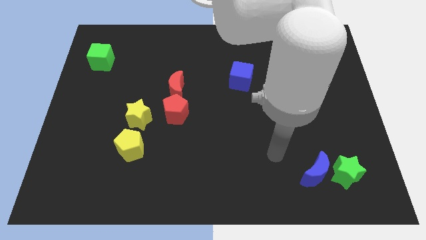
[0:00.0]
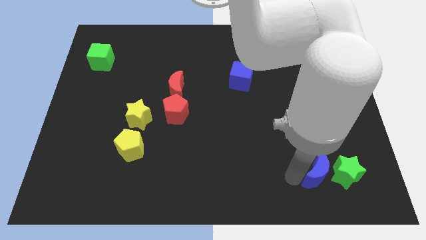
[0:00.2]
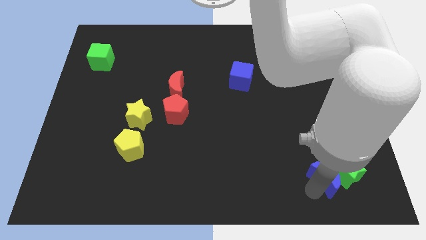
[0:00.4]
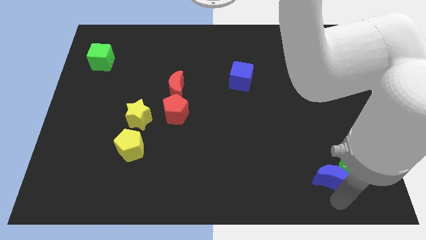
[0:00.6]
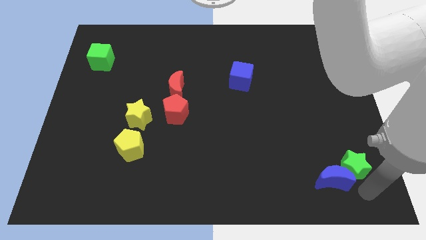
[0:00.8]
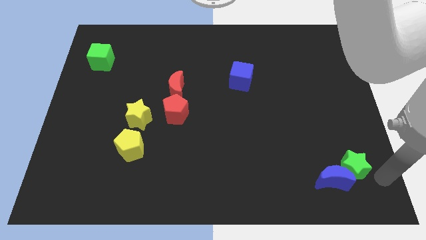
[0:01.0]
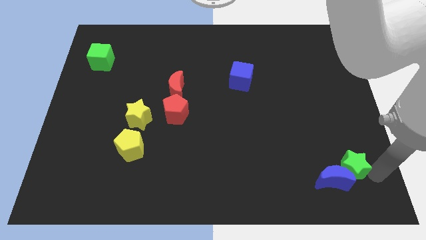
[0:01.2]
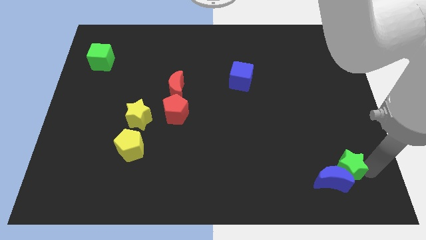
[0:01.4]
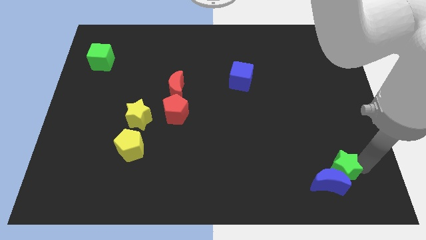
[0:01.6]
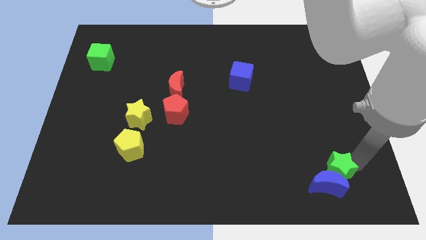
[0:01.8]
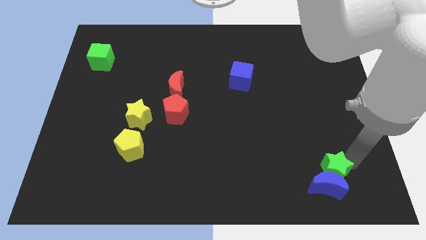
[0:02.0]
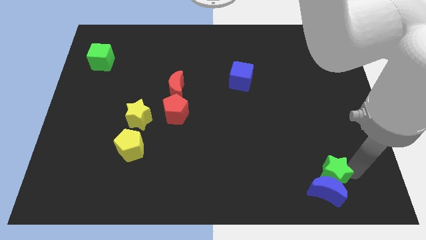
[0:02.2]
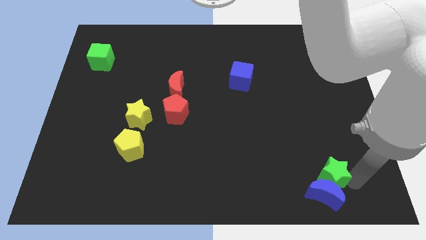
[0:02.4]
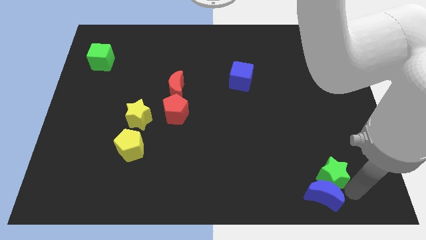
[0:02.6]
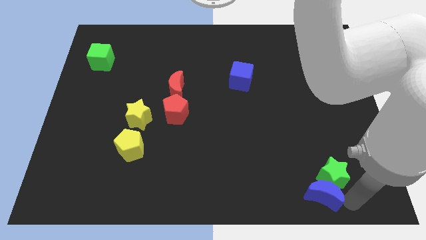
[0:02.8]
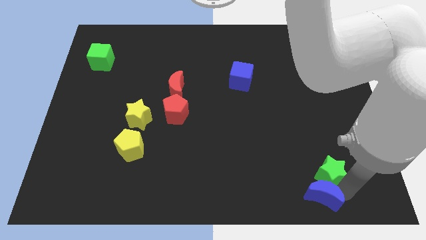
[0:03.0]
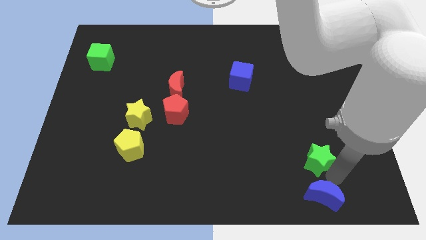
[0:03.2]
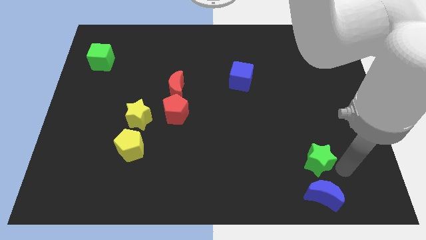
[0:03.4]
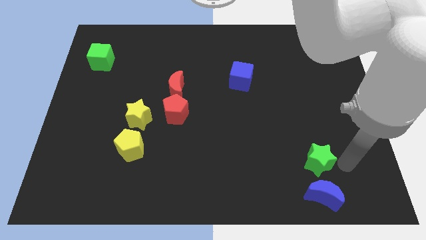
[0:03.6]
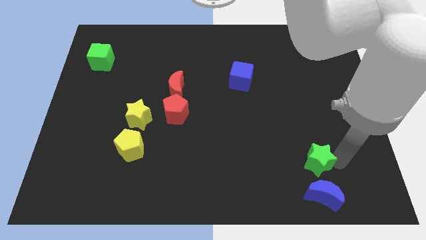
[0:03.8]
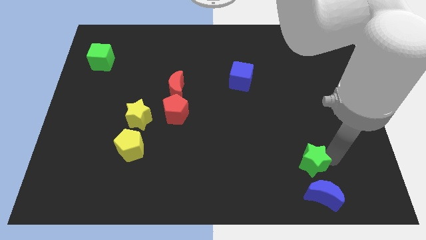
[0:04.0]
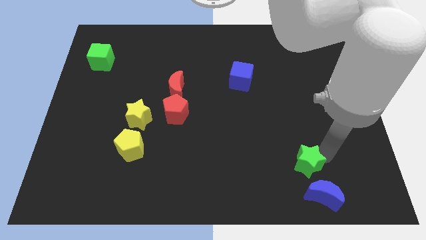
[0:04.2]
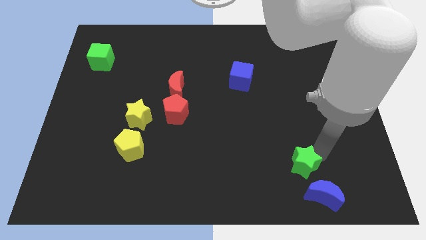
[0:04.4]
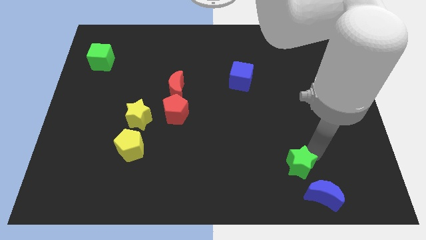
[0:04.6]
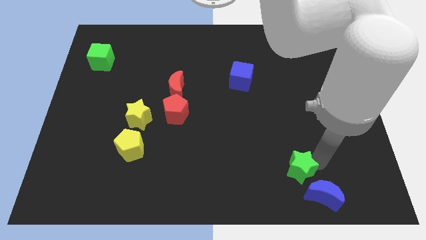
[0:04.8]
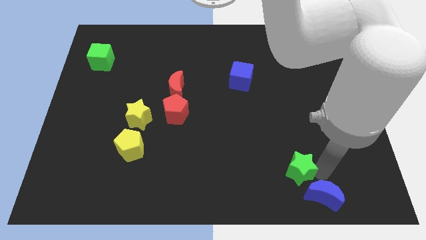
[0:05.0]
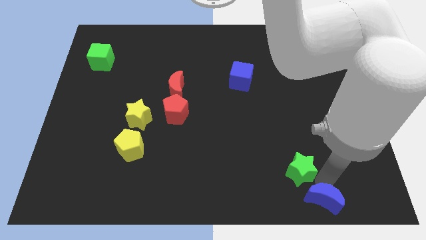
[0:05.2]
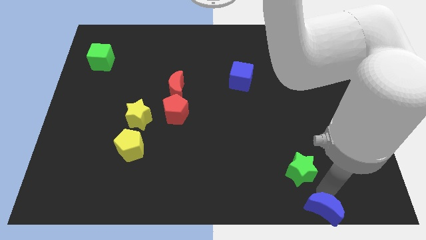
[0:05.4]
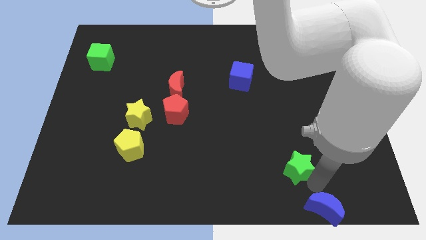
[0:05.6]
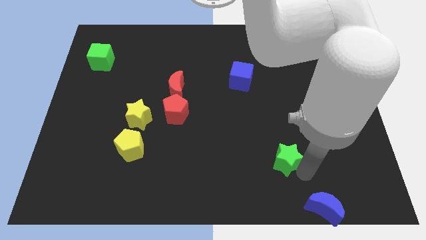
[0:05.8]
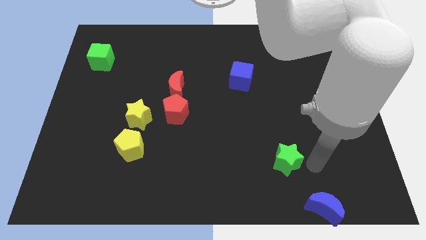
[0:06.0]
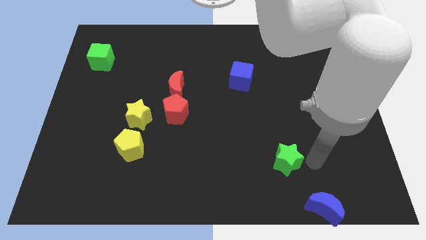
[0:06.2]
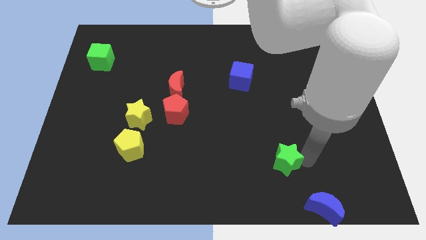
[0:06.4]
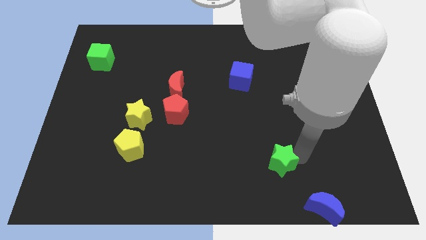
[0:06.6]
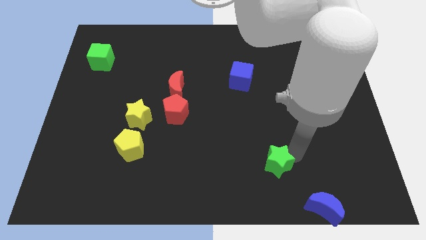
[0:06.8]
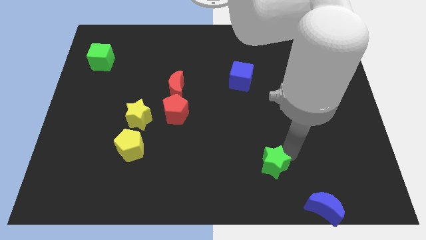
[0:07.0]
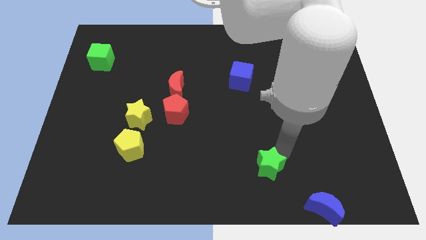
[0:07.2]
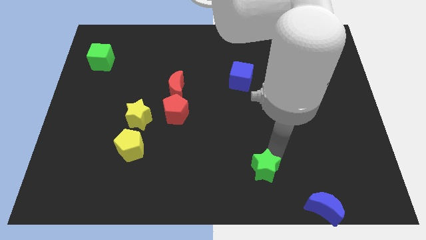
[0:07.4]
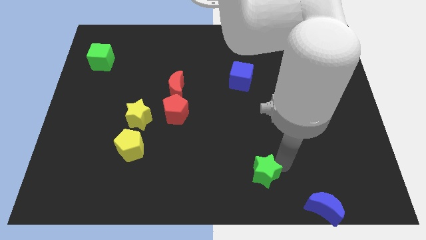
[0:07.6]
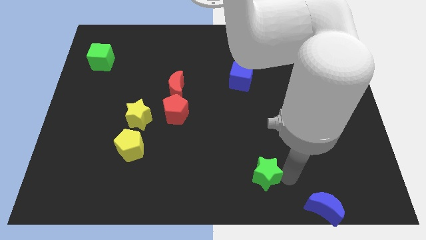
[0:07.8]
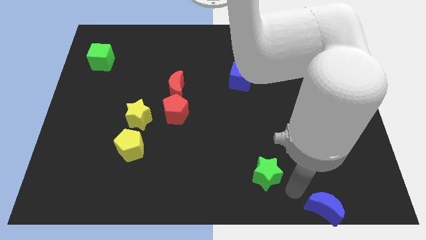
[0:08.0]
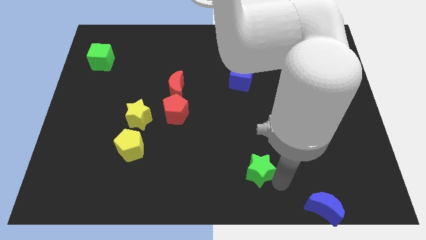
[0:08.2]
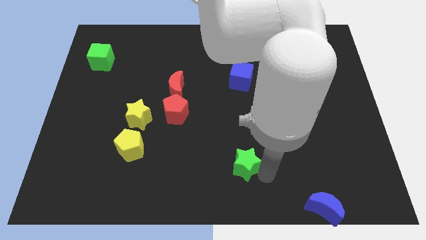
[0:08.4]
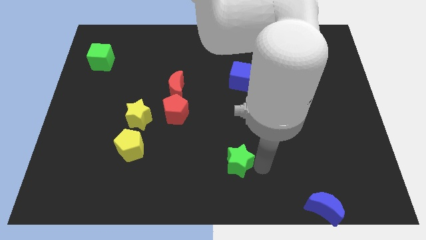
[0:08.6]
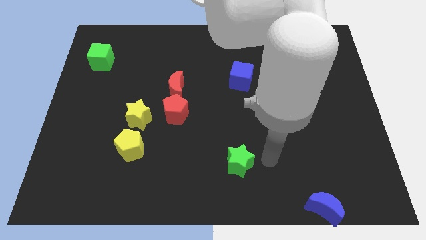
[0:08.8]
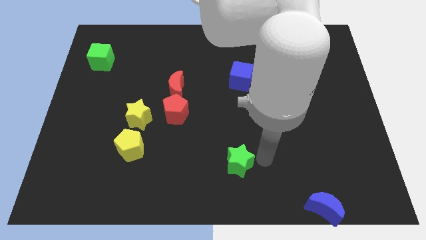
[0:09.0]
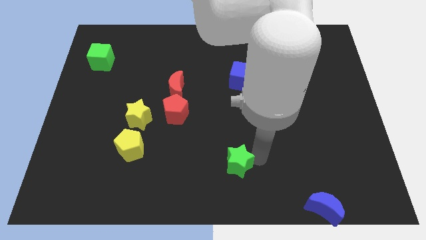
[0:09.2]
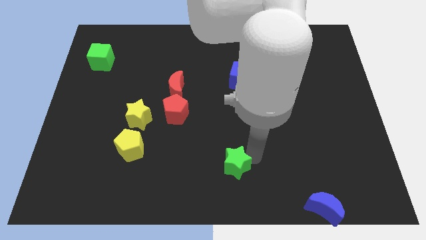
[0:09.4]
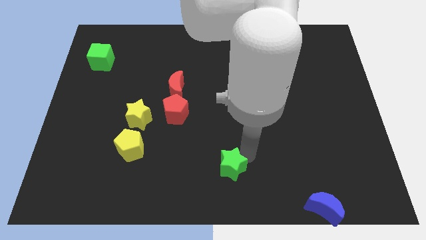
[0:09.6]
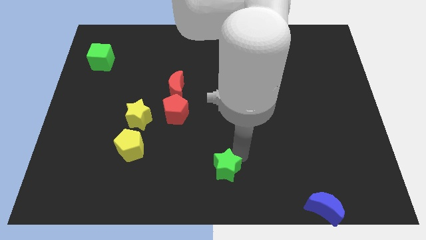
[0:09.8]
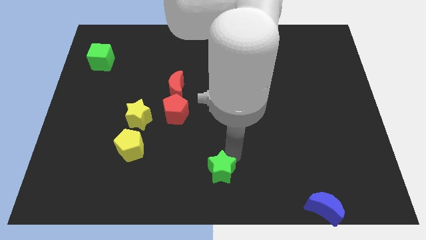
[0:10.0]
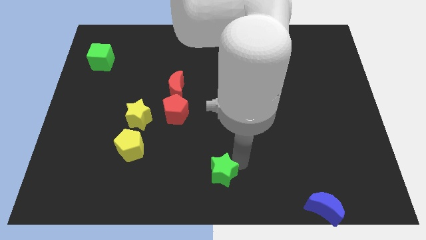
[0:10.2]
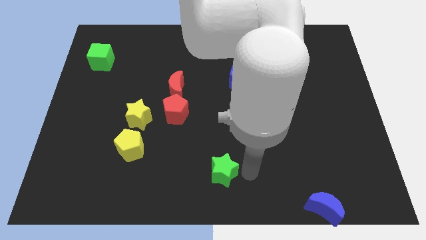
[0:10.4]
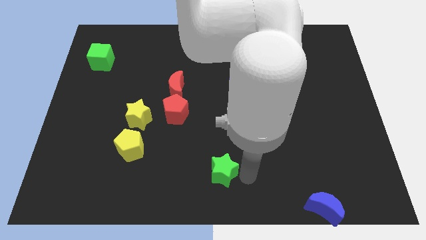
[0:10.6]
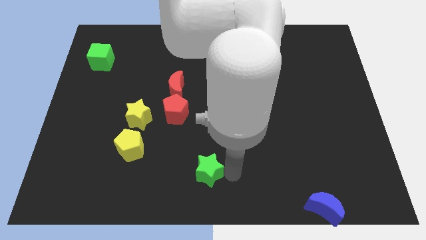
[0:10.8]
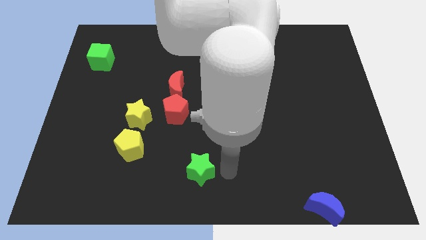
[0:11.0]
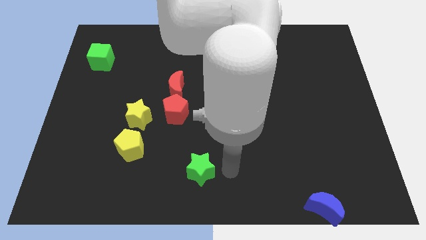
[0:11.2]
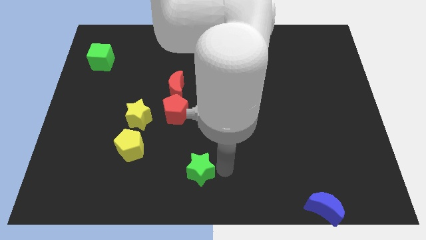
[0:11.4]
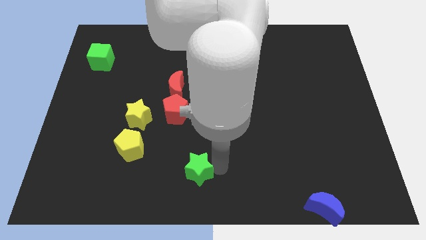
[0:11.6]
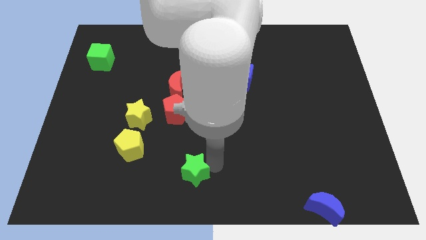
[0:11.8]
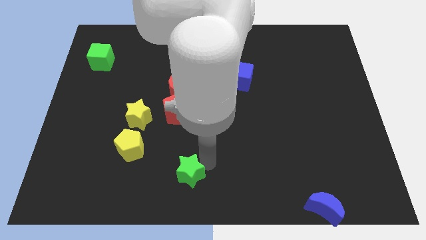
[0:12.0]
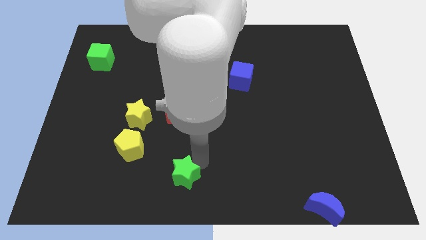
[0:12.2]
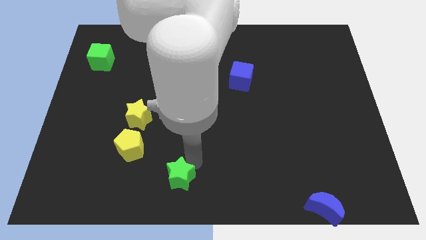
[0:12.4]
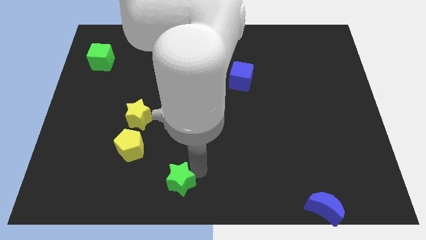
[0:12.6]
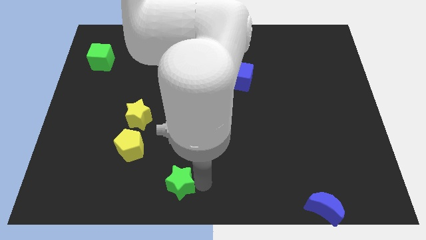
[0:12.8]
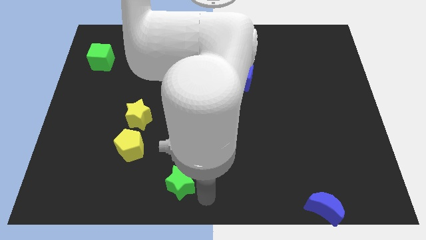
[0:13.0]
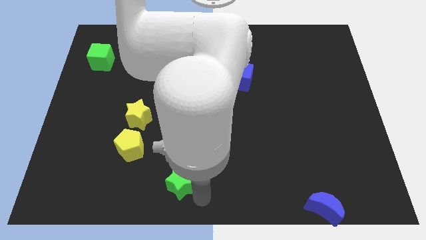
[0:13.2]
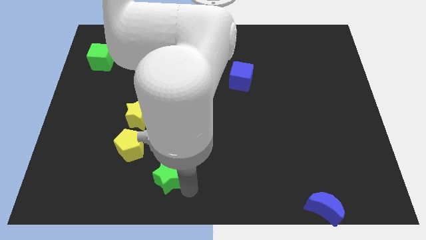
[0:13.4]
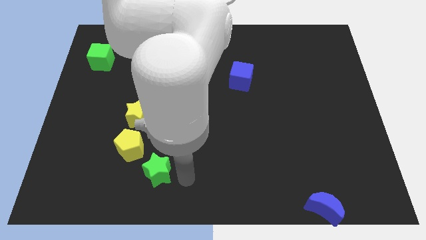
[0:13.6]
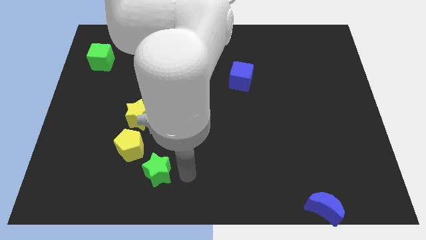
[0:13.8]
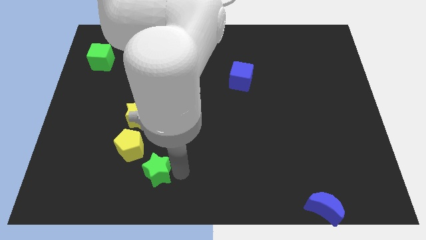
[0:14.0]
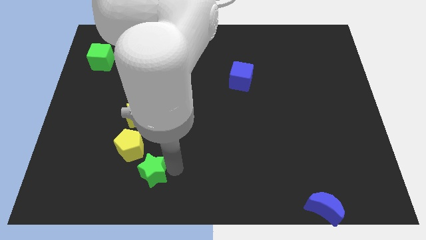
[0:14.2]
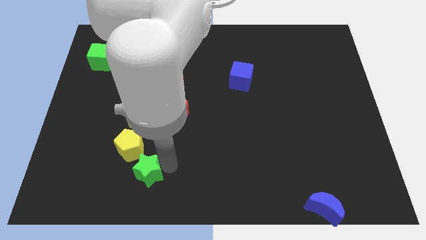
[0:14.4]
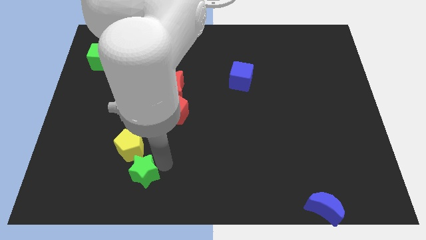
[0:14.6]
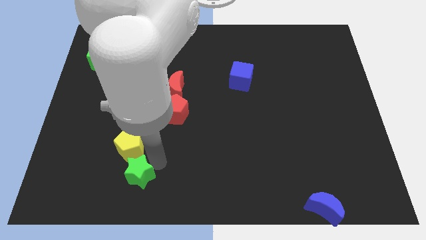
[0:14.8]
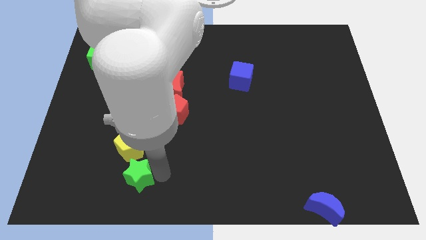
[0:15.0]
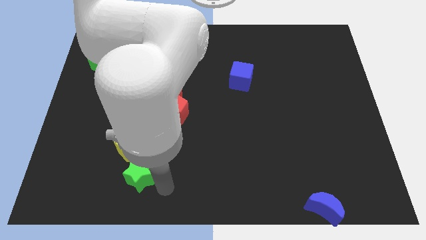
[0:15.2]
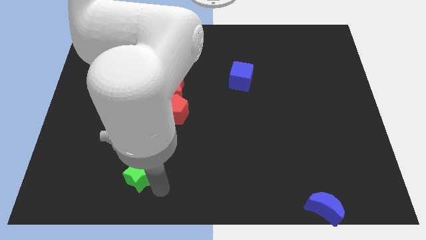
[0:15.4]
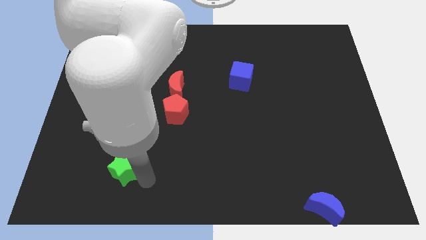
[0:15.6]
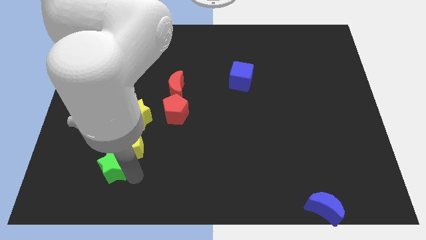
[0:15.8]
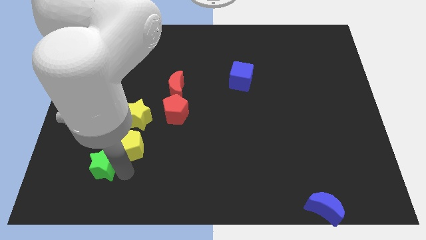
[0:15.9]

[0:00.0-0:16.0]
move the green star just left of the yellow pentagon
